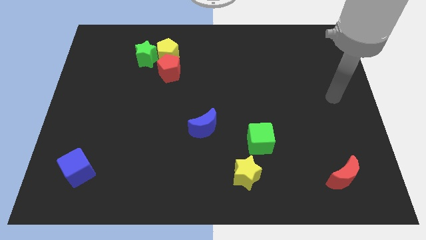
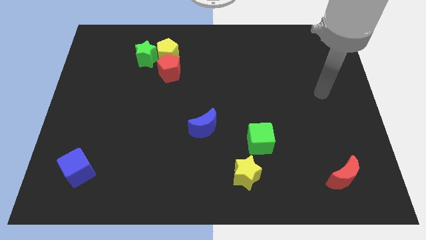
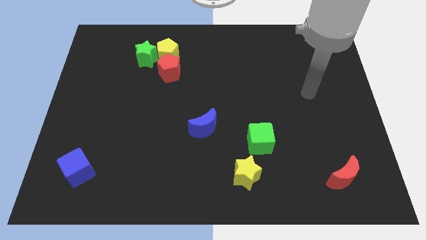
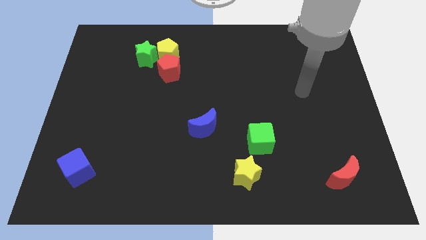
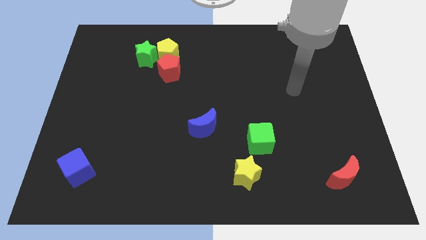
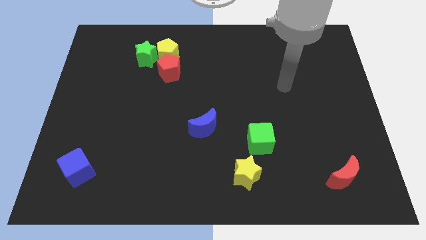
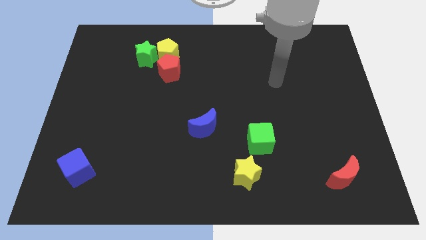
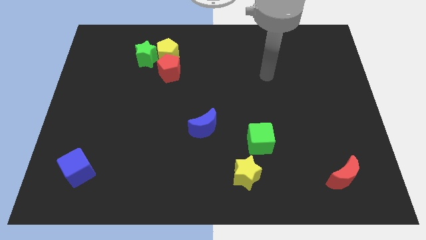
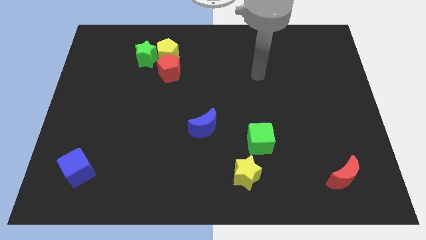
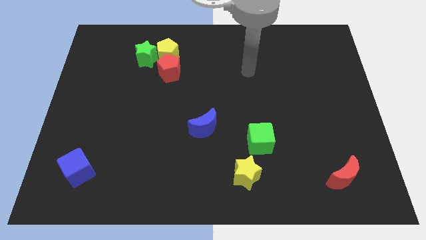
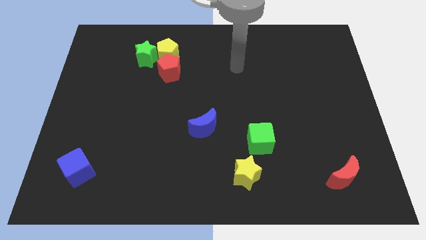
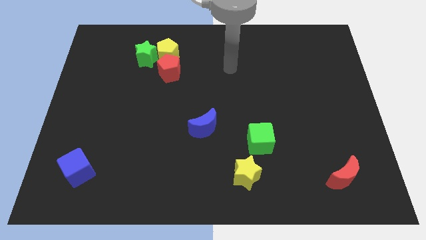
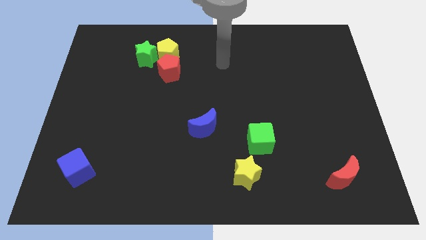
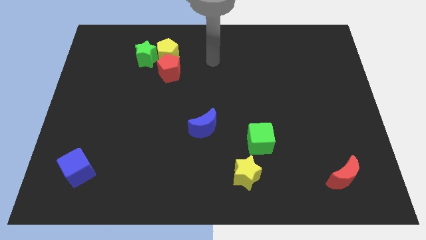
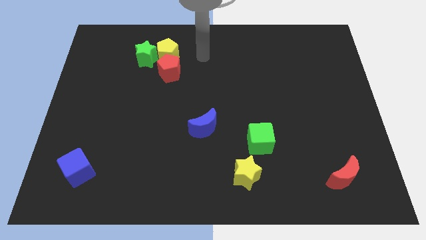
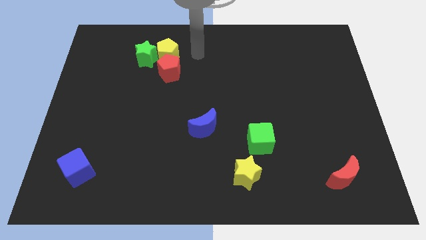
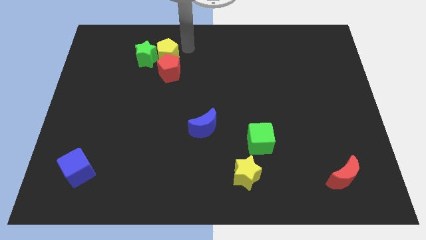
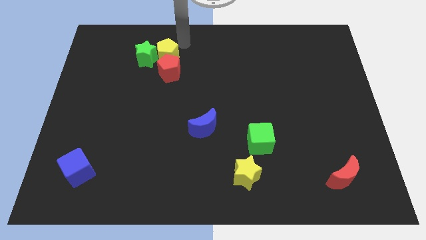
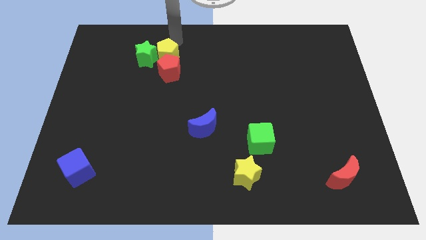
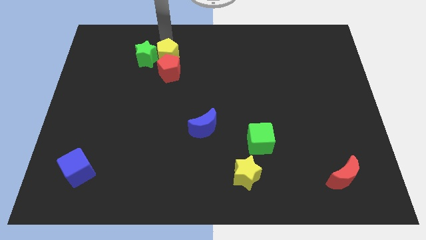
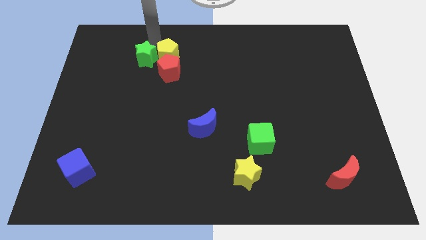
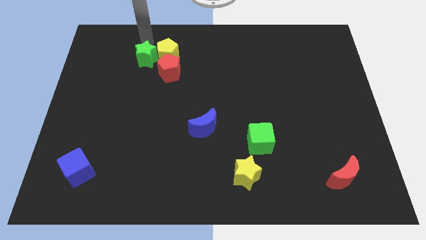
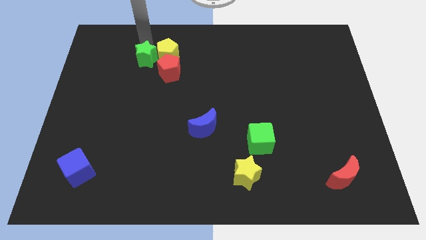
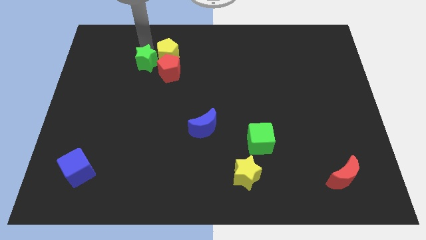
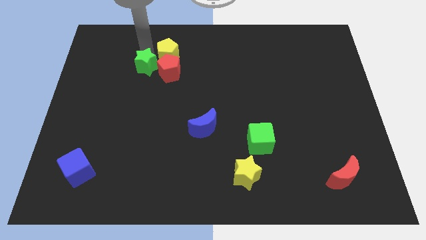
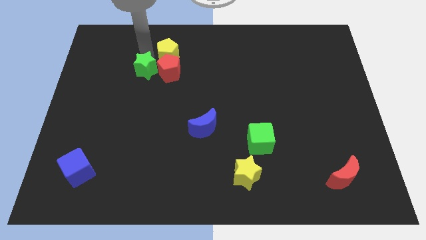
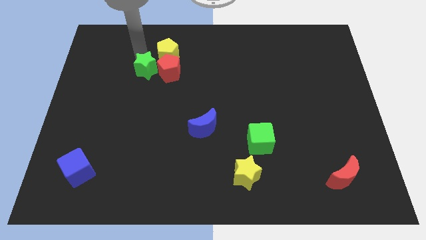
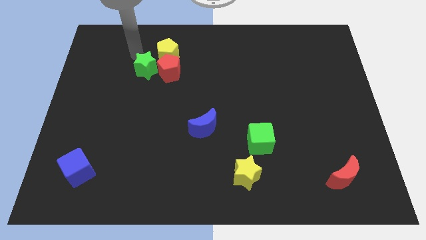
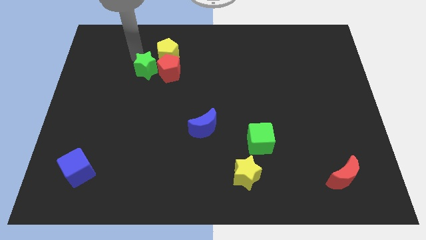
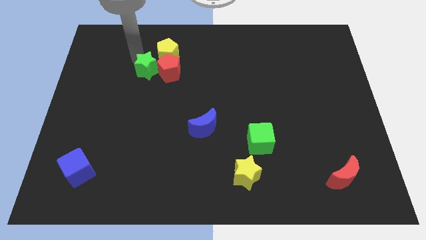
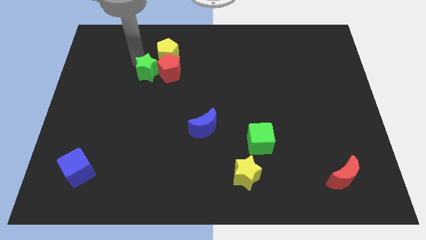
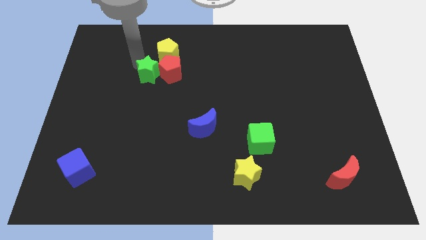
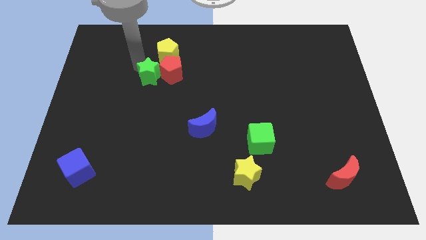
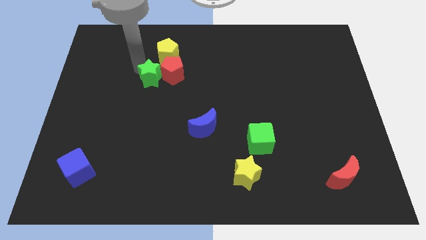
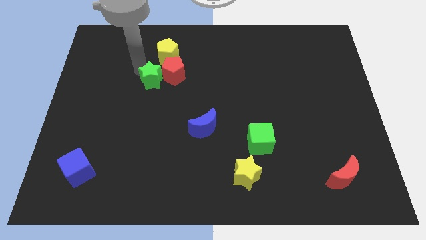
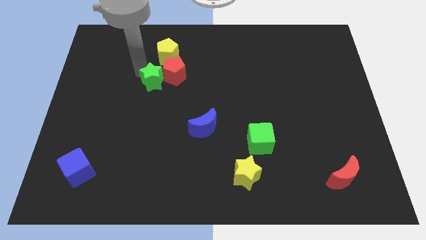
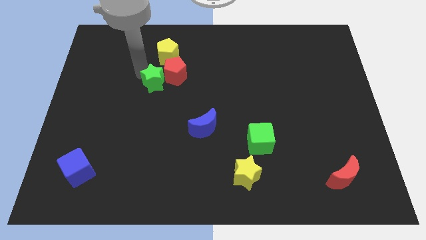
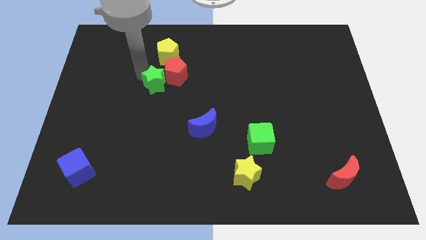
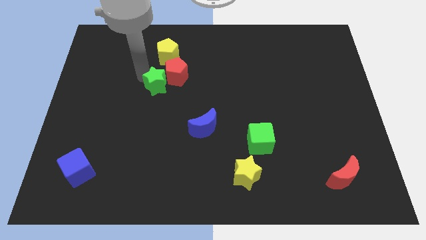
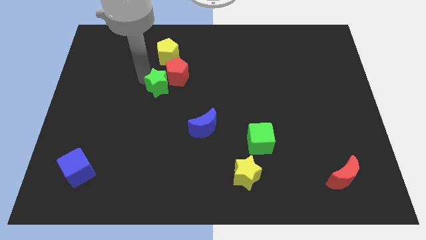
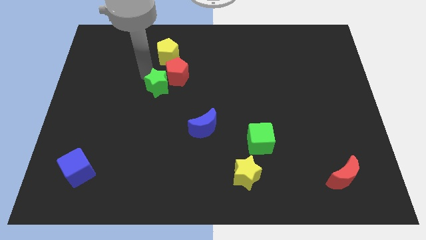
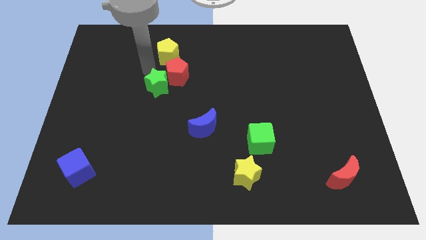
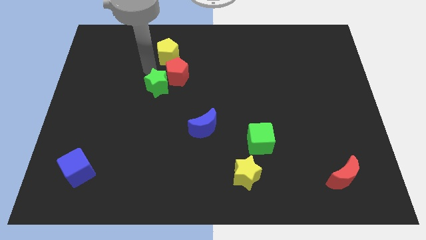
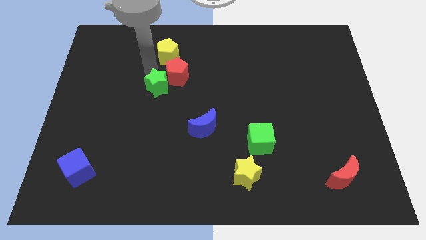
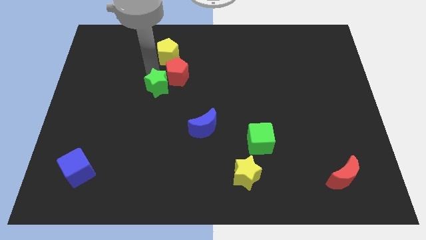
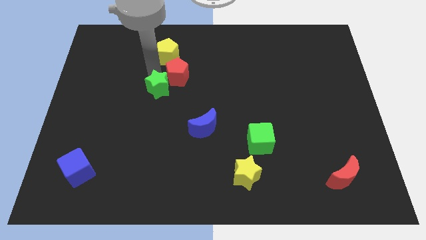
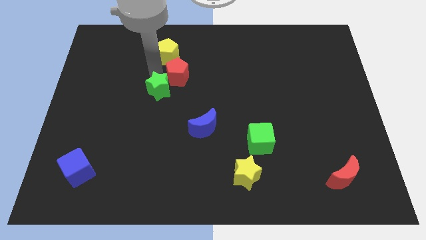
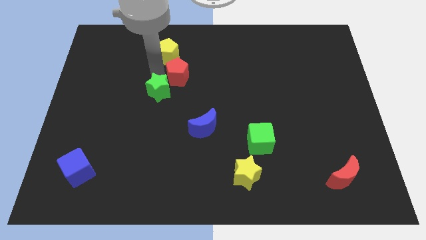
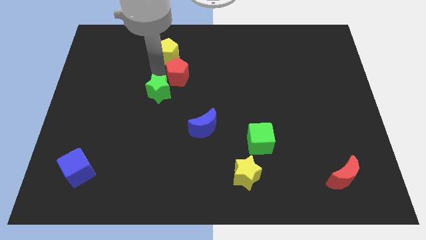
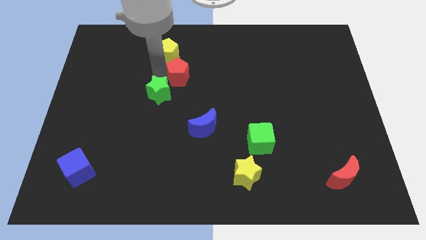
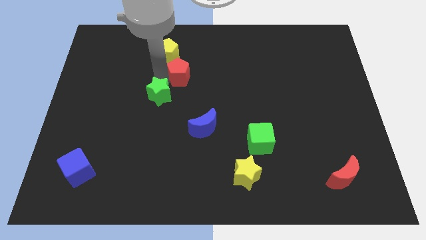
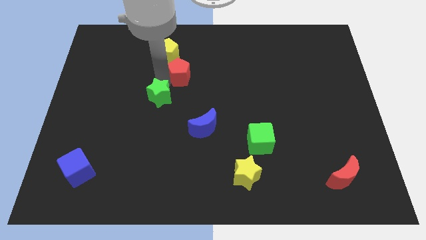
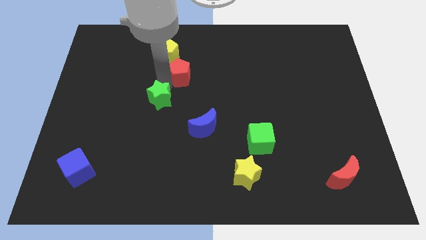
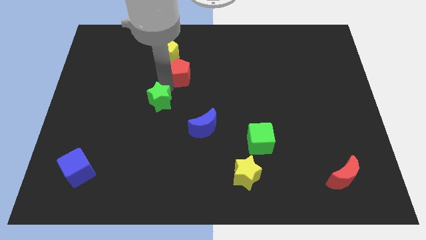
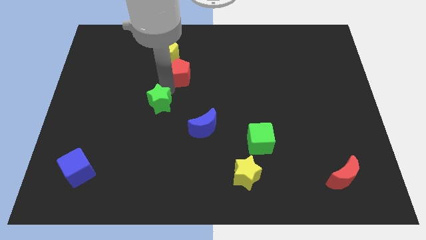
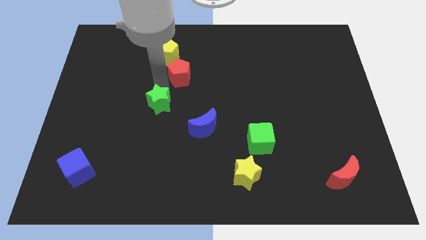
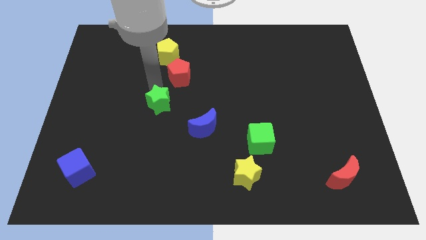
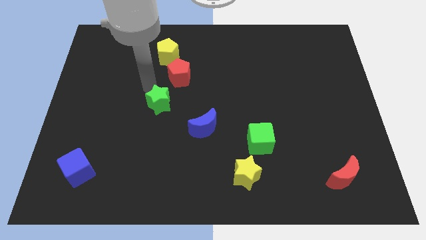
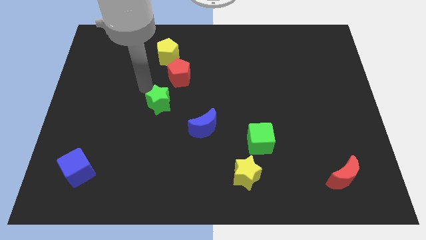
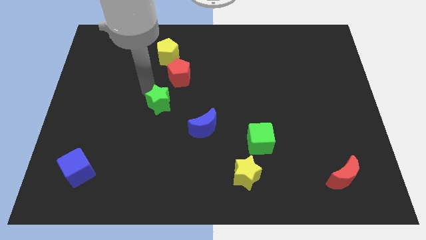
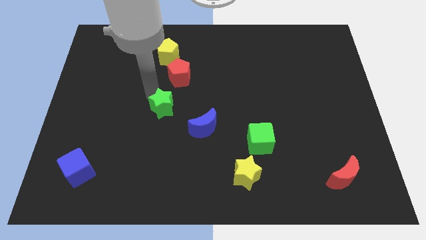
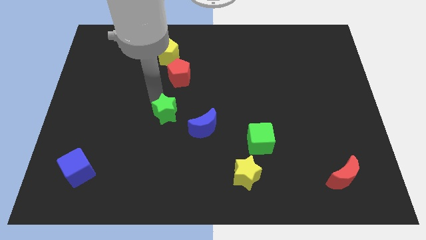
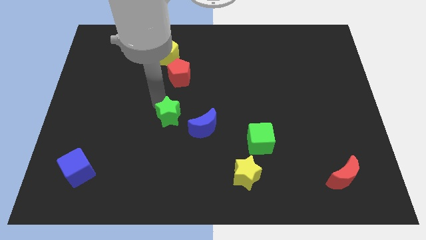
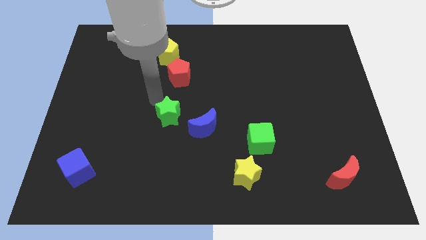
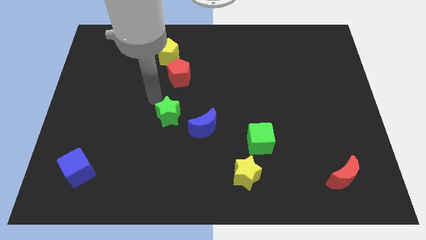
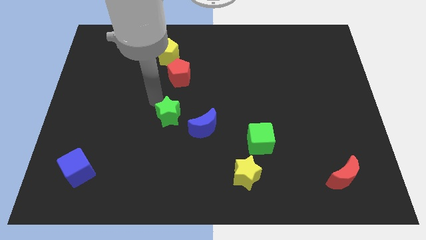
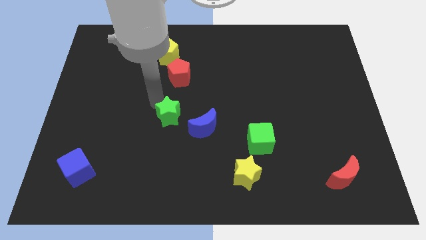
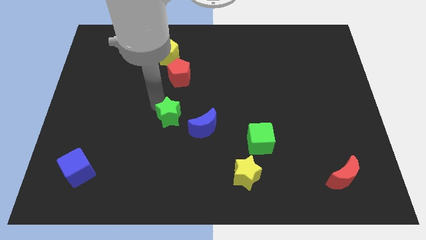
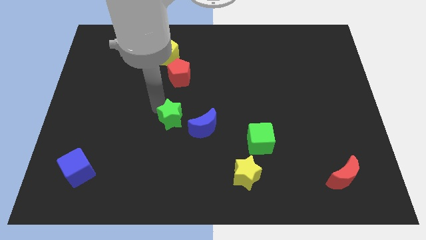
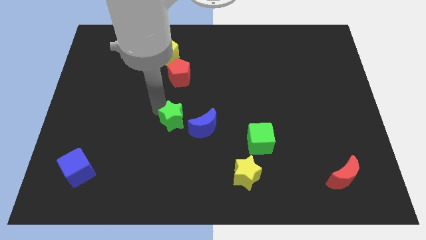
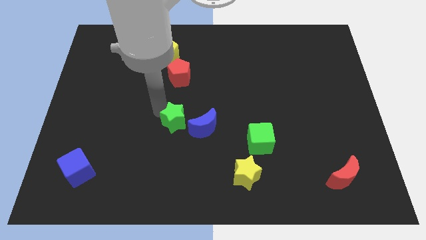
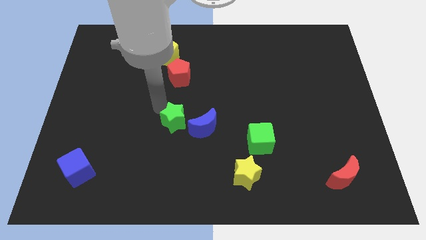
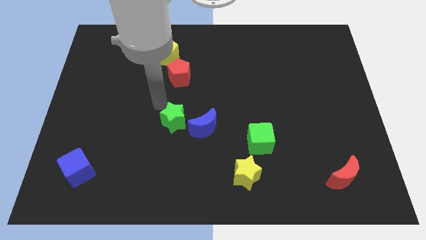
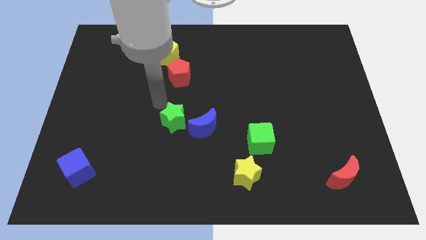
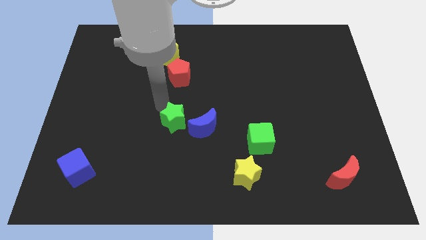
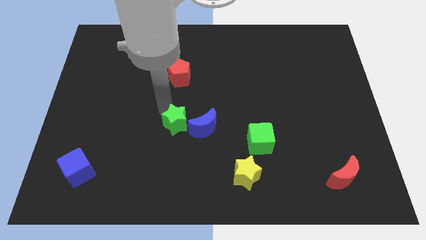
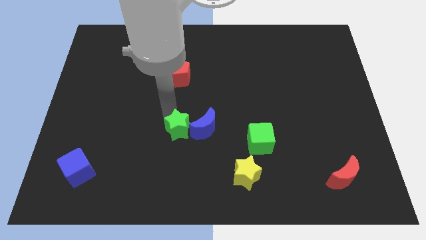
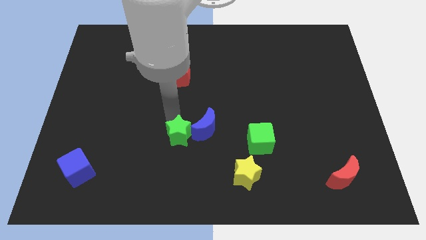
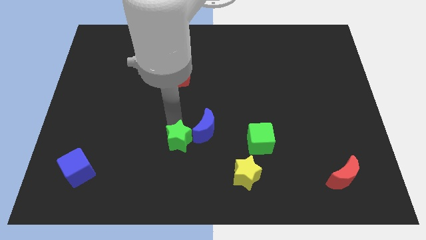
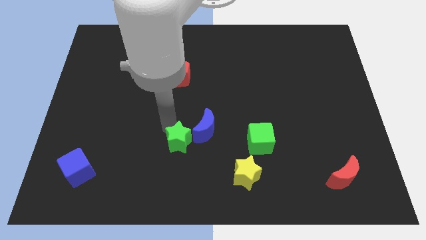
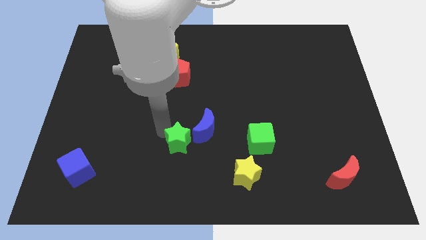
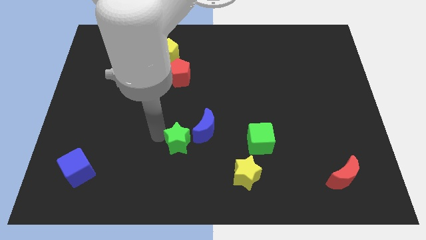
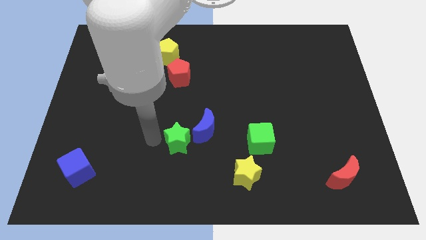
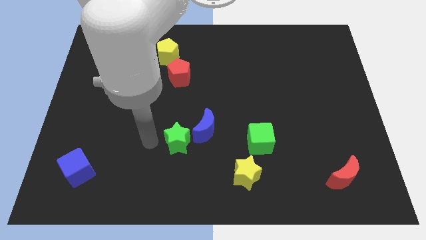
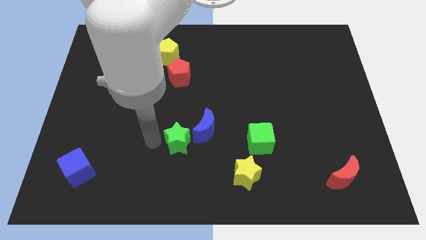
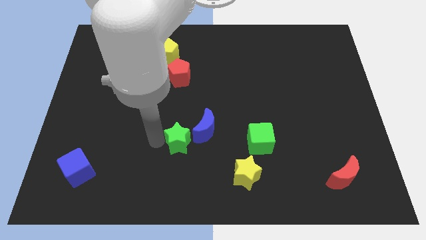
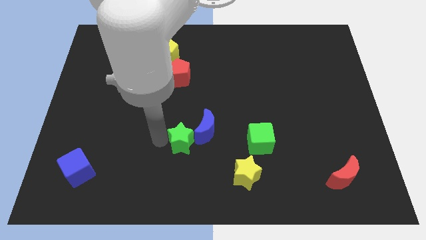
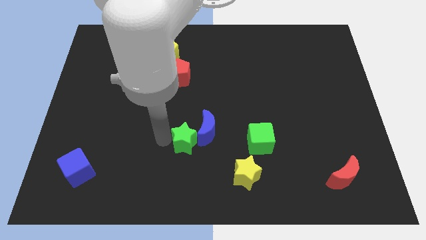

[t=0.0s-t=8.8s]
push the green star to the left side of the green cube
